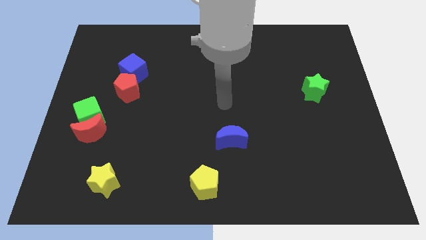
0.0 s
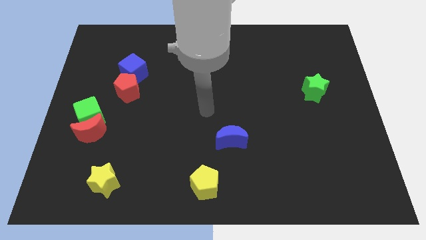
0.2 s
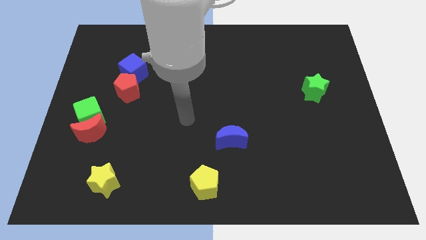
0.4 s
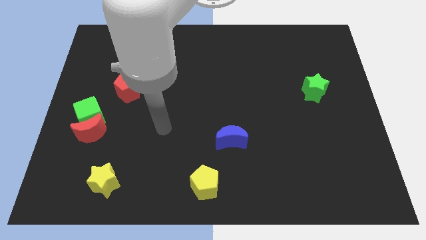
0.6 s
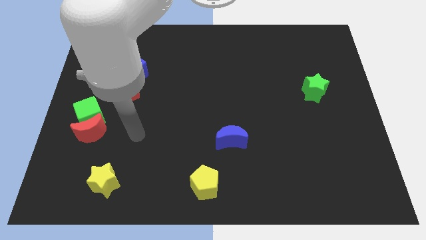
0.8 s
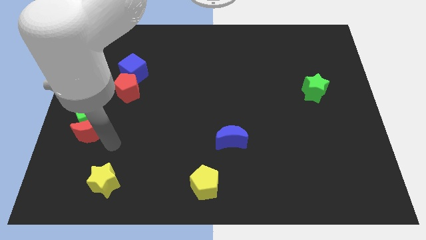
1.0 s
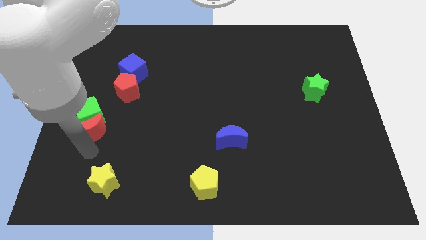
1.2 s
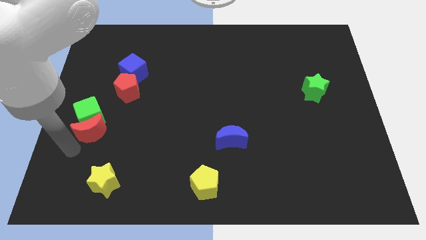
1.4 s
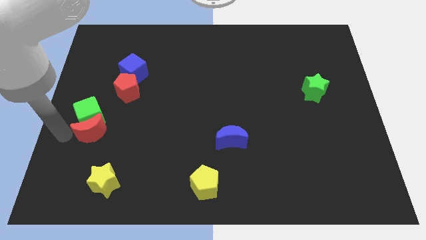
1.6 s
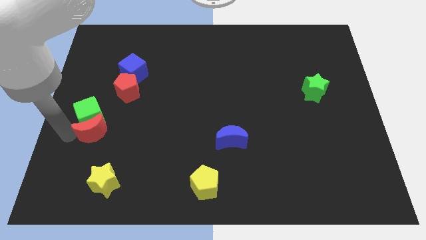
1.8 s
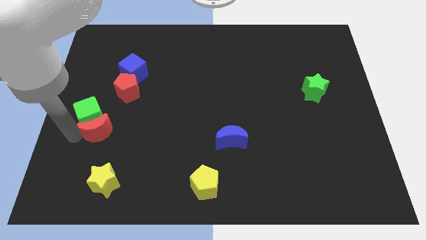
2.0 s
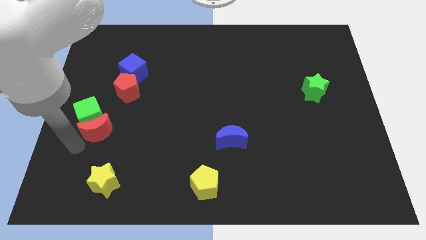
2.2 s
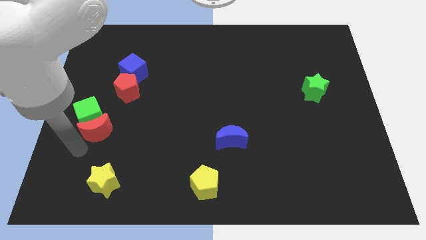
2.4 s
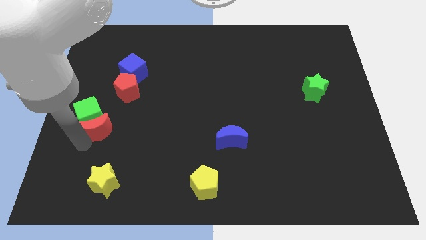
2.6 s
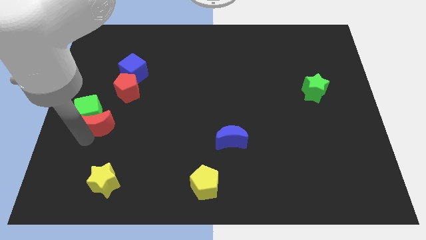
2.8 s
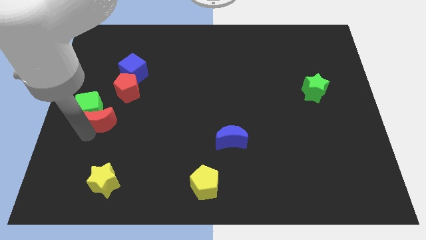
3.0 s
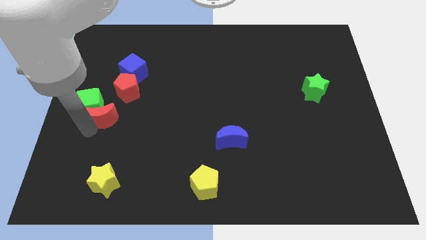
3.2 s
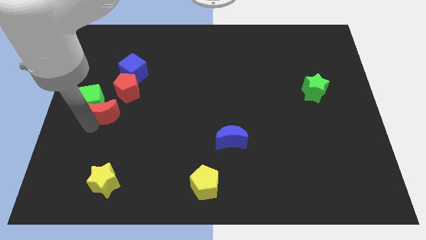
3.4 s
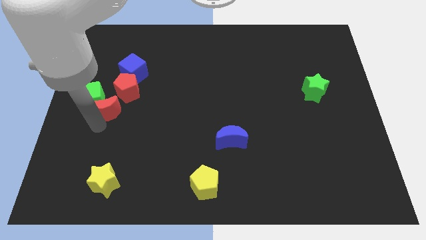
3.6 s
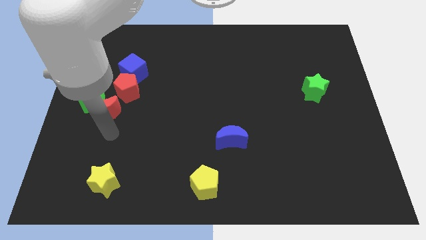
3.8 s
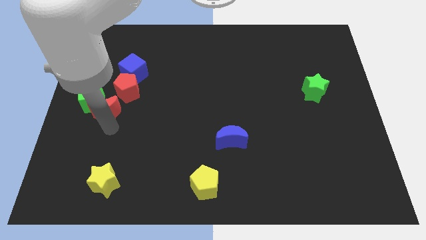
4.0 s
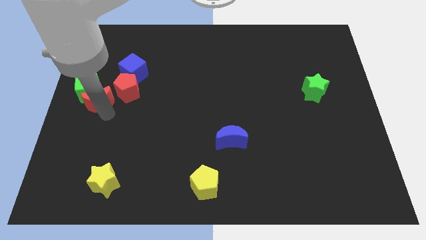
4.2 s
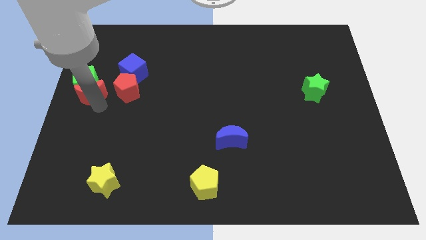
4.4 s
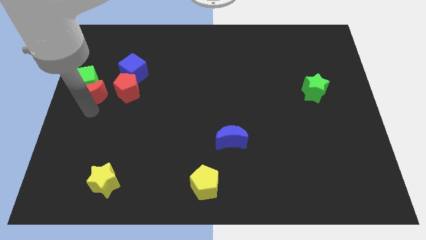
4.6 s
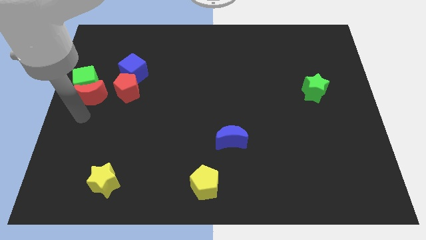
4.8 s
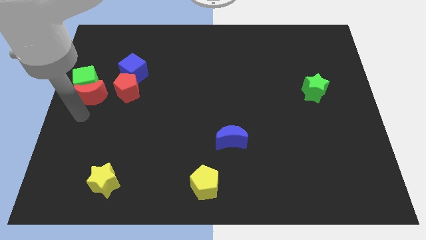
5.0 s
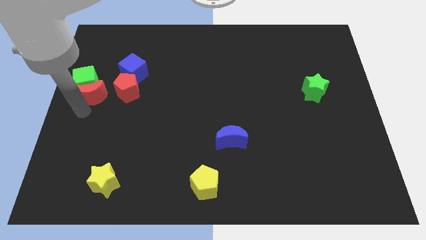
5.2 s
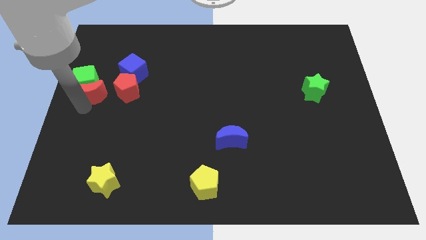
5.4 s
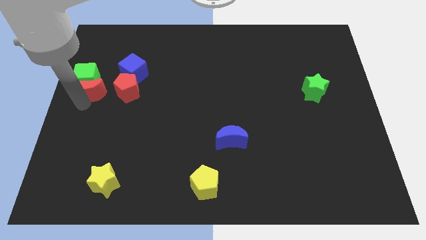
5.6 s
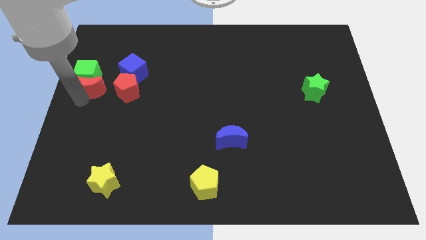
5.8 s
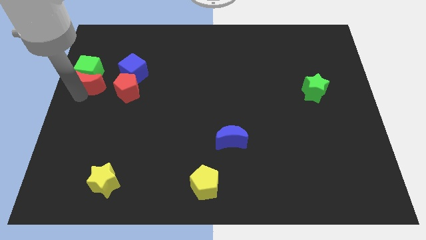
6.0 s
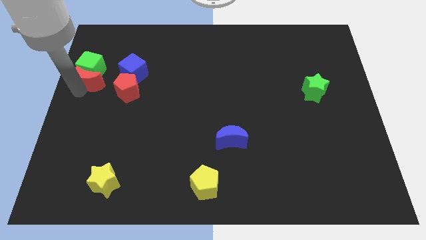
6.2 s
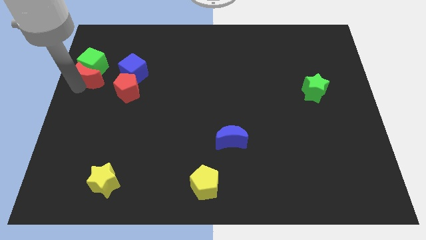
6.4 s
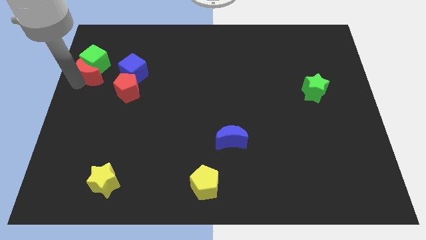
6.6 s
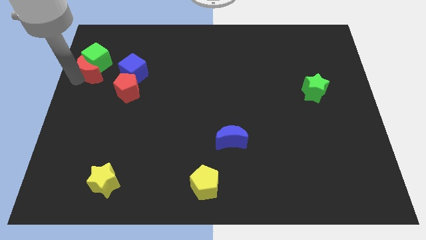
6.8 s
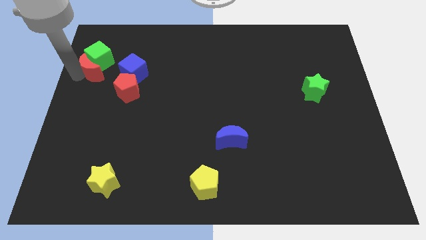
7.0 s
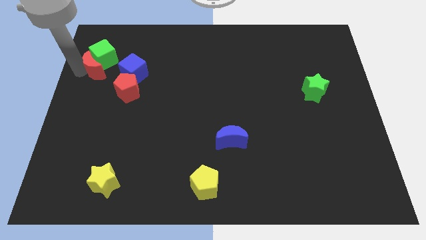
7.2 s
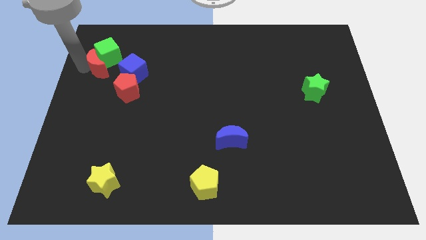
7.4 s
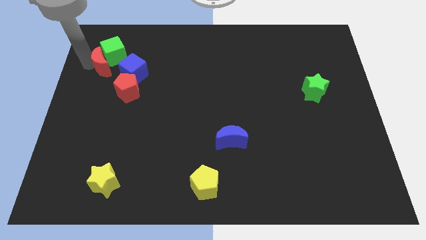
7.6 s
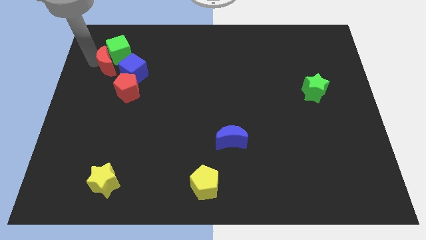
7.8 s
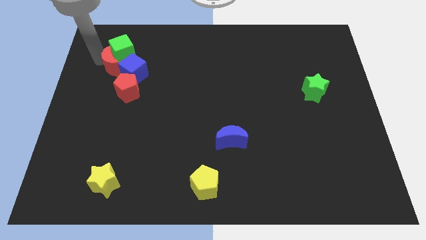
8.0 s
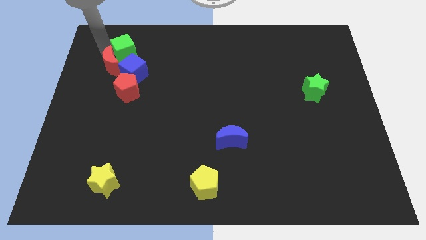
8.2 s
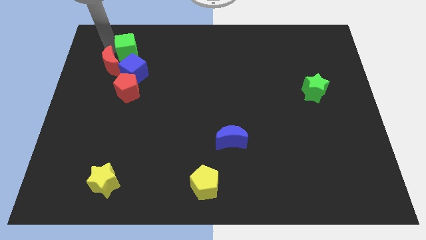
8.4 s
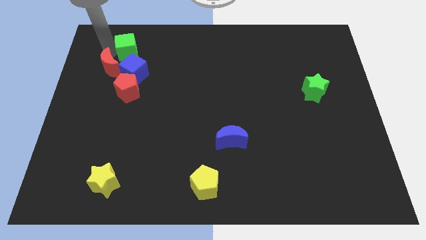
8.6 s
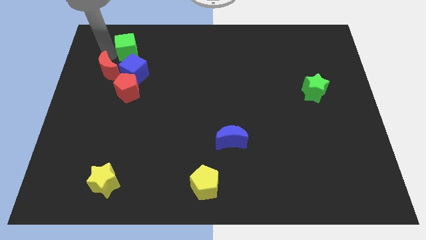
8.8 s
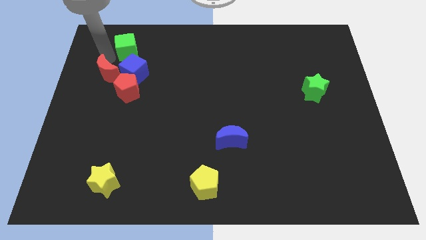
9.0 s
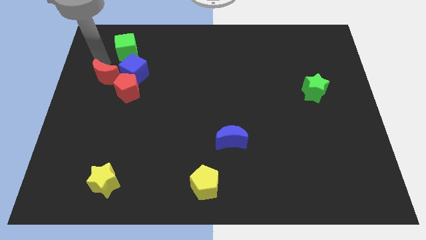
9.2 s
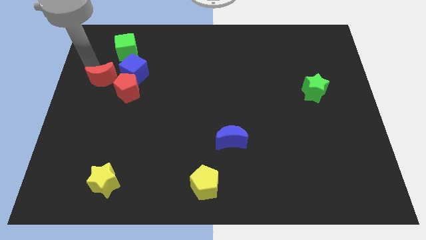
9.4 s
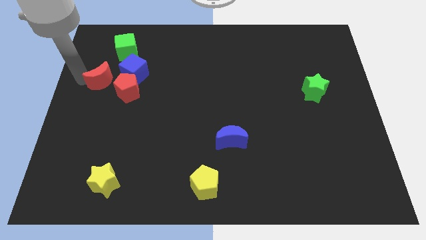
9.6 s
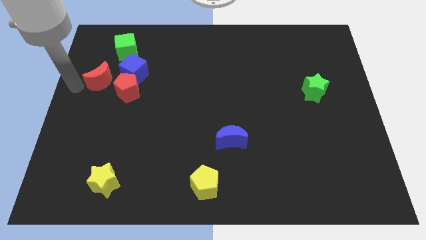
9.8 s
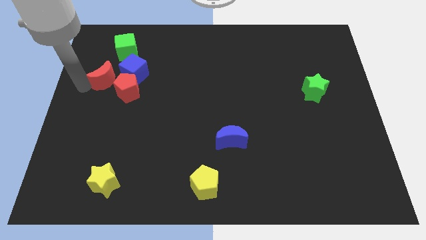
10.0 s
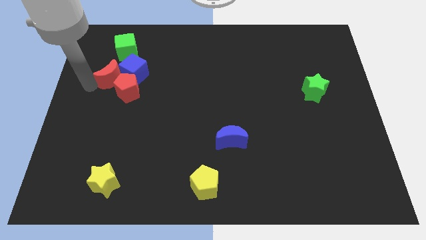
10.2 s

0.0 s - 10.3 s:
slide the red moon next to the blue cube
